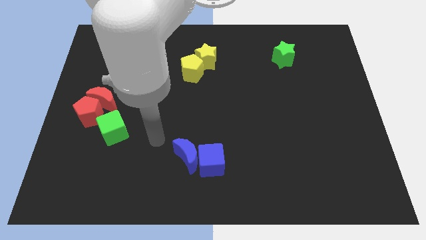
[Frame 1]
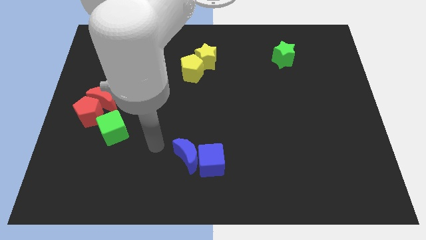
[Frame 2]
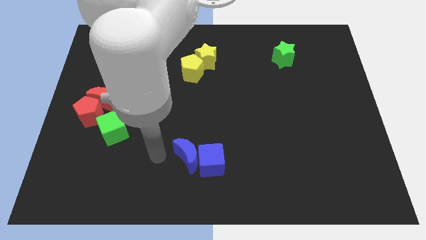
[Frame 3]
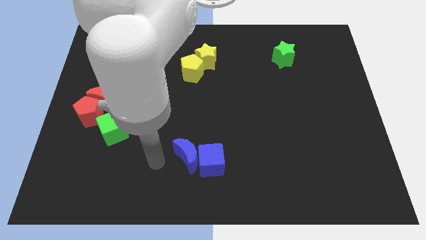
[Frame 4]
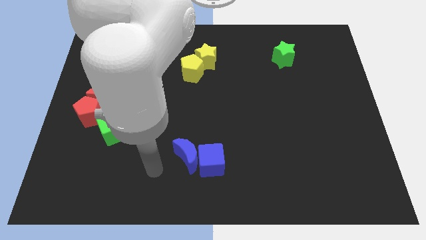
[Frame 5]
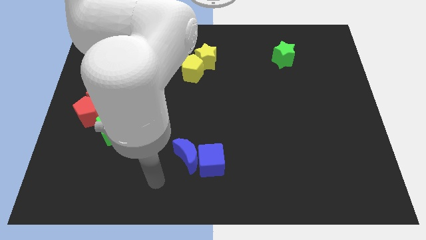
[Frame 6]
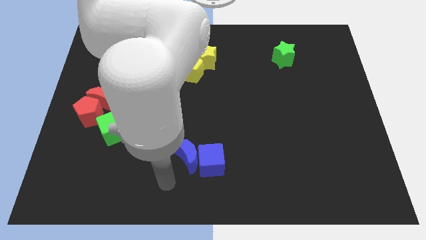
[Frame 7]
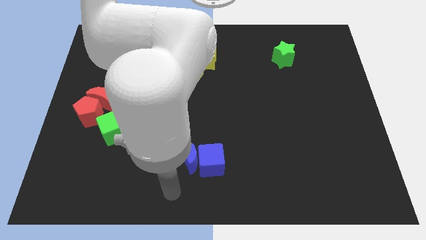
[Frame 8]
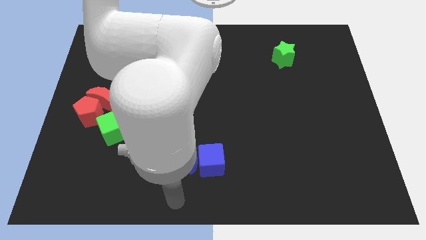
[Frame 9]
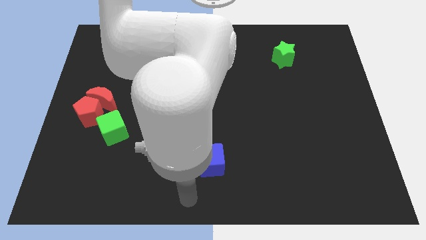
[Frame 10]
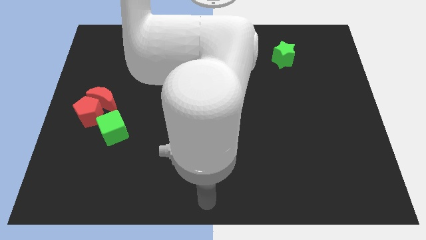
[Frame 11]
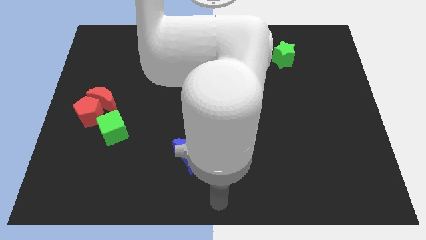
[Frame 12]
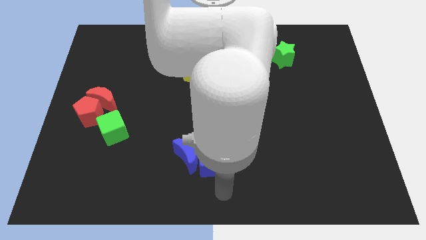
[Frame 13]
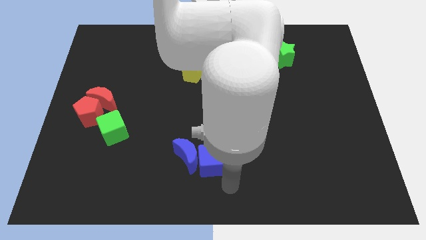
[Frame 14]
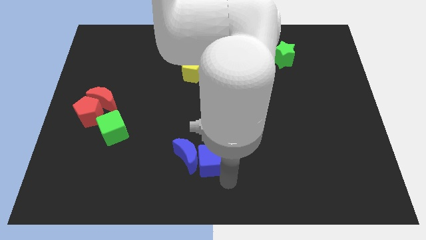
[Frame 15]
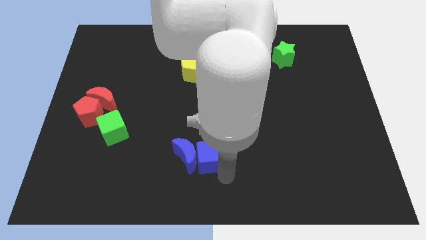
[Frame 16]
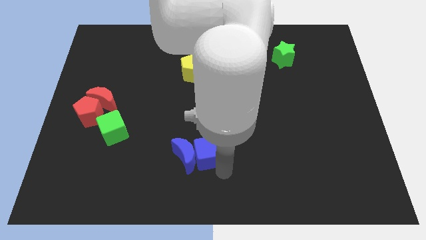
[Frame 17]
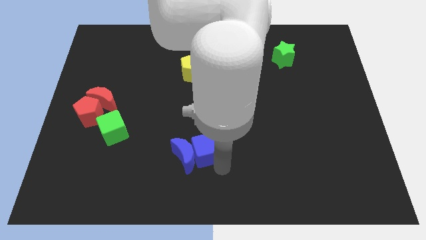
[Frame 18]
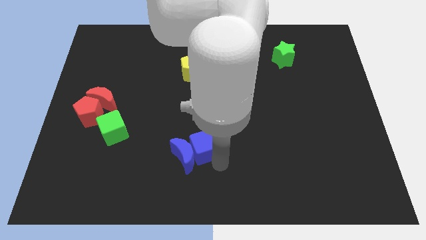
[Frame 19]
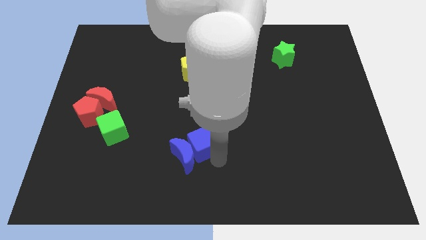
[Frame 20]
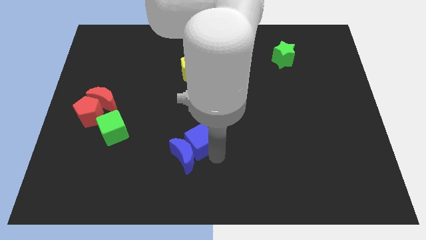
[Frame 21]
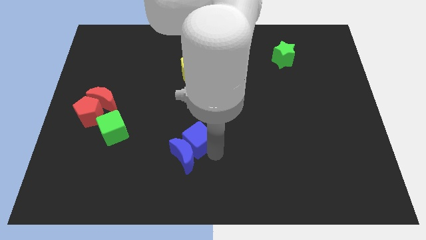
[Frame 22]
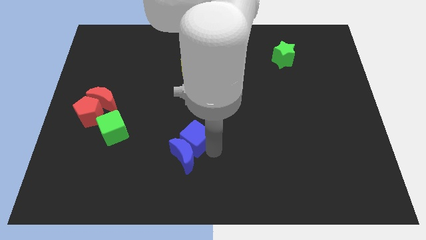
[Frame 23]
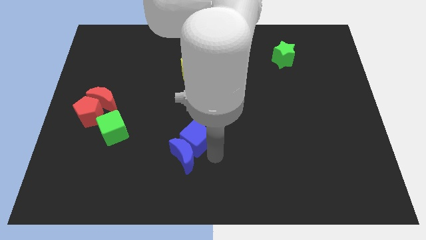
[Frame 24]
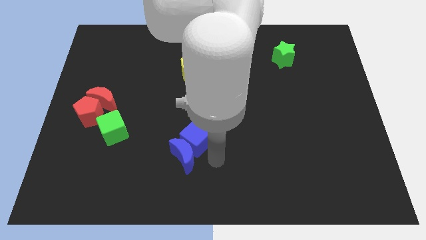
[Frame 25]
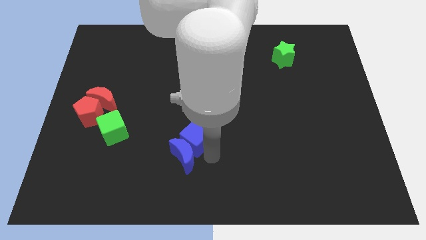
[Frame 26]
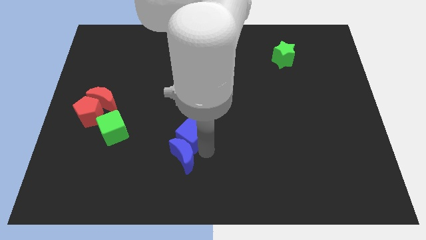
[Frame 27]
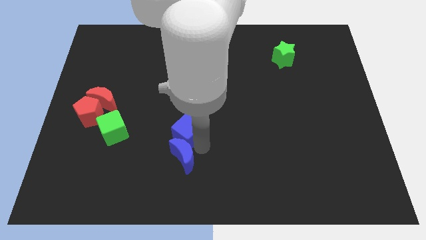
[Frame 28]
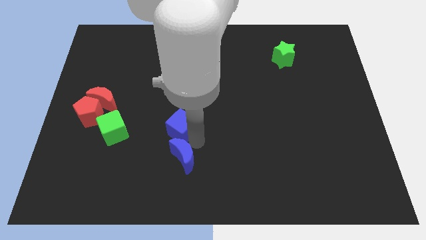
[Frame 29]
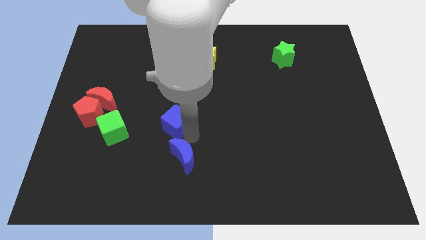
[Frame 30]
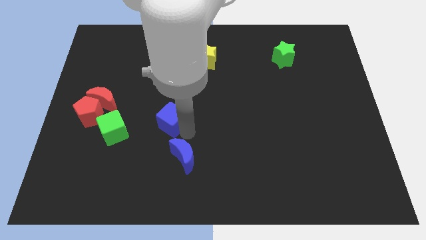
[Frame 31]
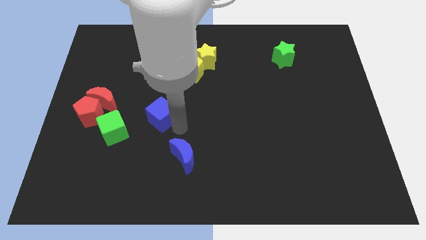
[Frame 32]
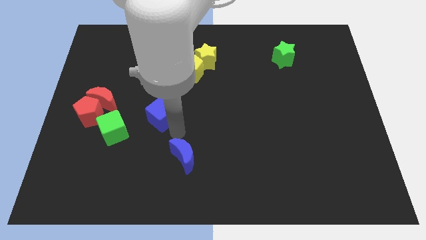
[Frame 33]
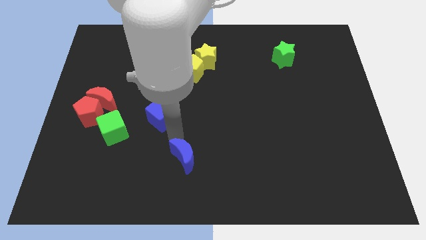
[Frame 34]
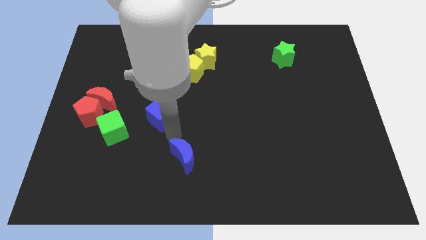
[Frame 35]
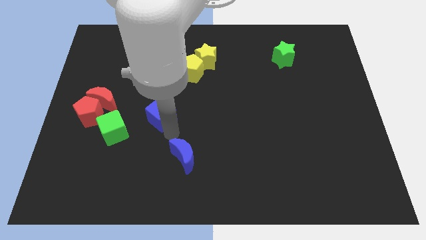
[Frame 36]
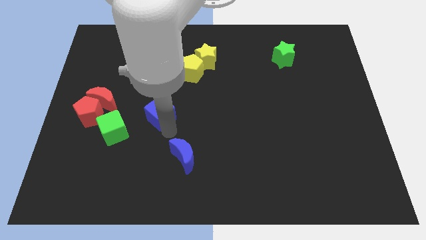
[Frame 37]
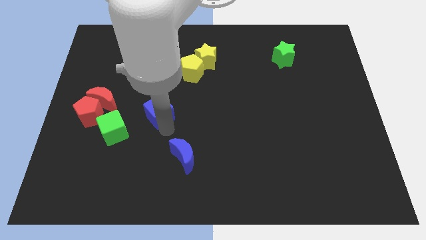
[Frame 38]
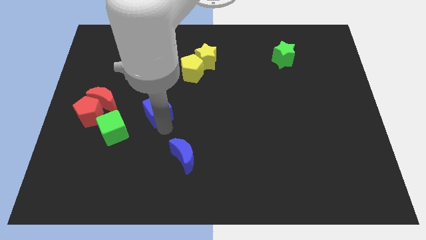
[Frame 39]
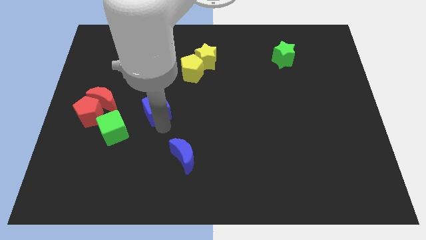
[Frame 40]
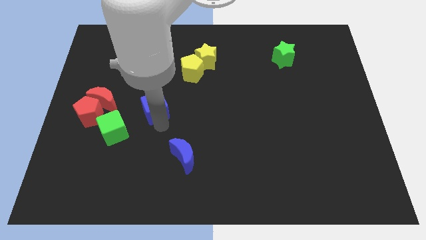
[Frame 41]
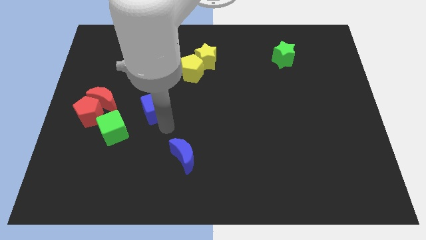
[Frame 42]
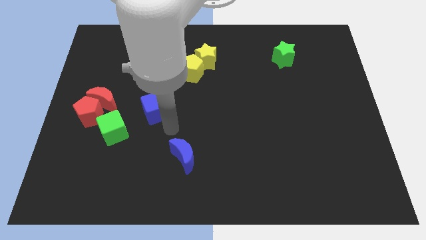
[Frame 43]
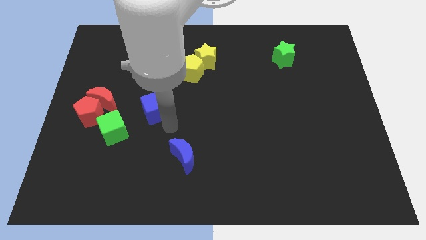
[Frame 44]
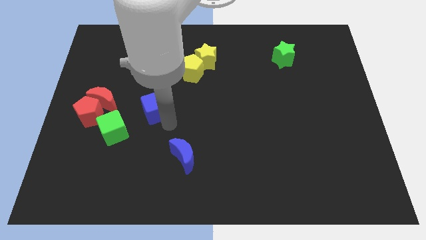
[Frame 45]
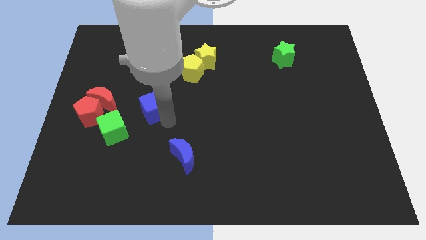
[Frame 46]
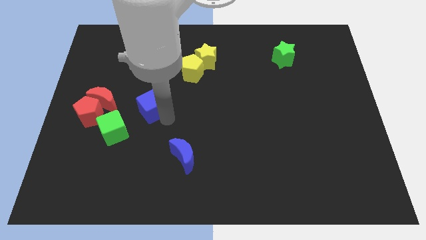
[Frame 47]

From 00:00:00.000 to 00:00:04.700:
push the blue cube up and then left

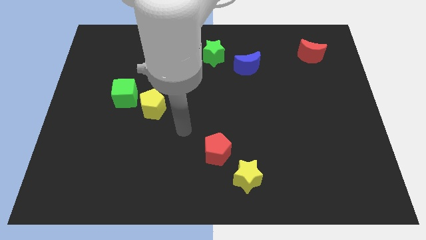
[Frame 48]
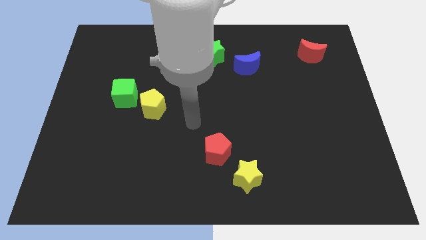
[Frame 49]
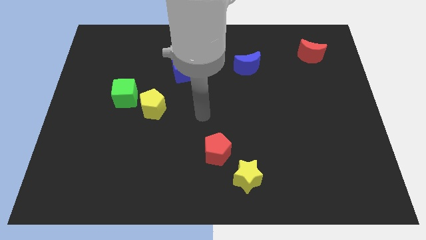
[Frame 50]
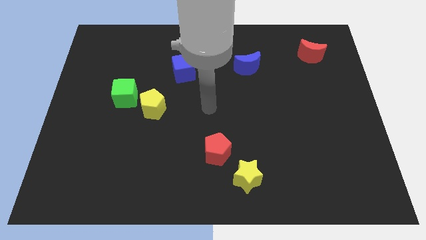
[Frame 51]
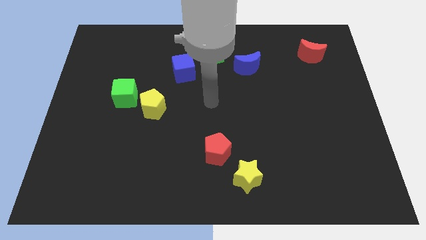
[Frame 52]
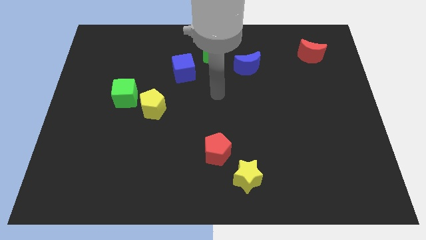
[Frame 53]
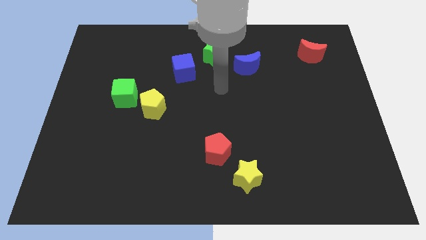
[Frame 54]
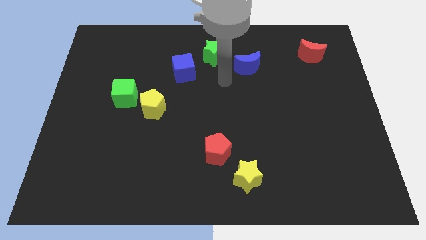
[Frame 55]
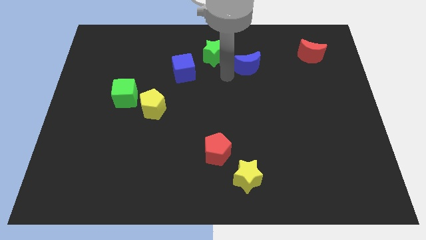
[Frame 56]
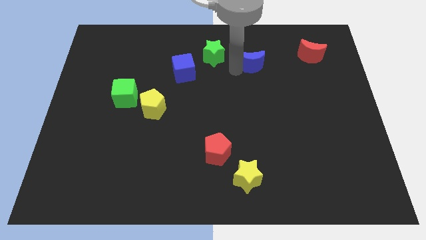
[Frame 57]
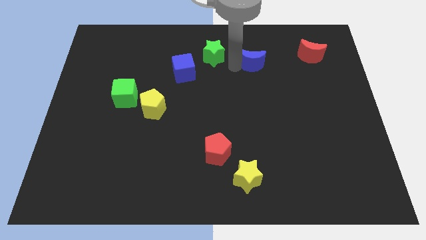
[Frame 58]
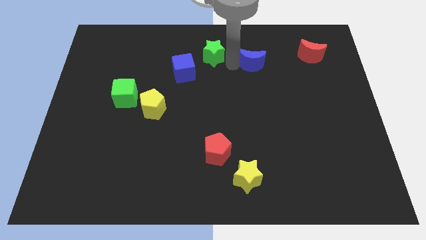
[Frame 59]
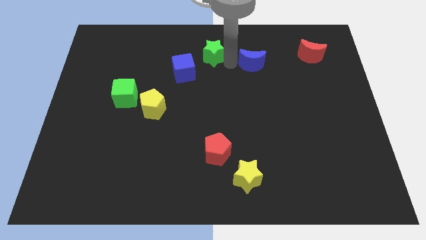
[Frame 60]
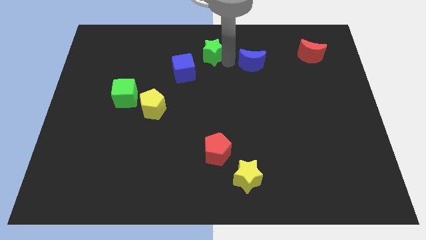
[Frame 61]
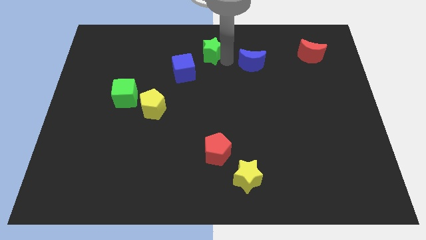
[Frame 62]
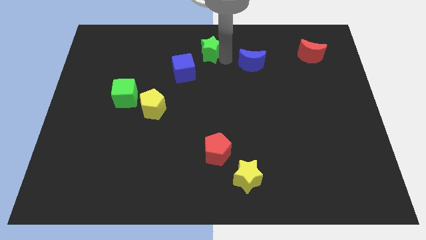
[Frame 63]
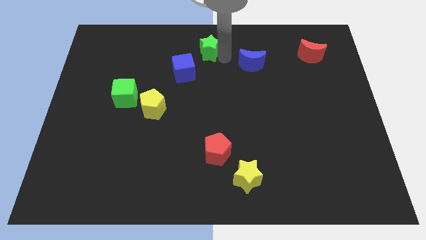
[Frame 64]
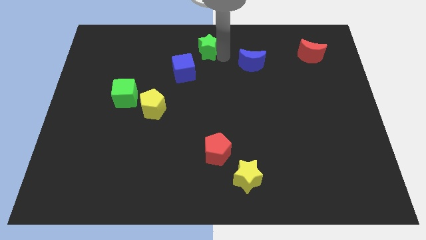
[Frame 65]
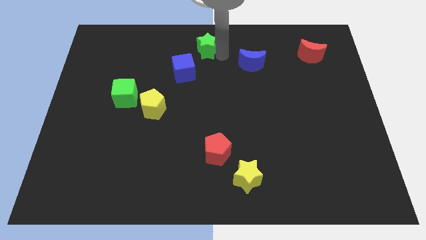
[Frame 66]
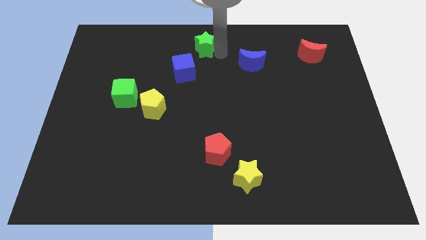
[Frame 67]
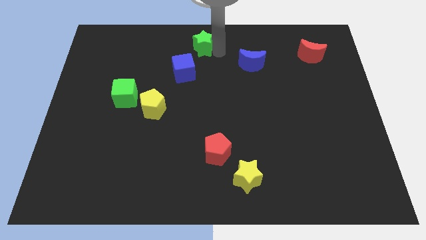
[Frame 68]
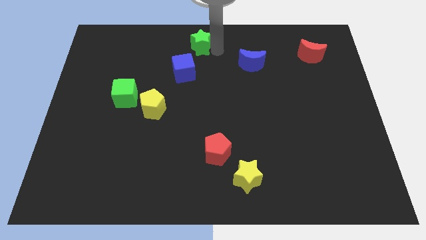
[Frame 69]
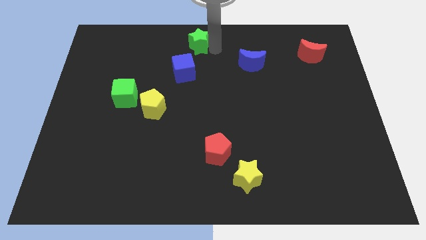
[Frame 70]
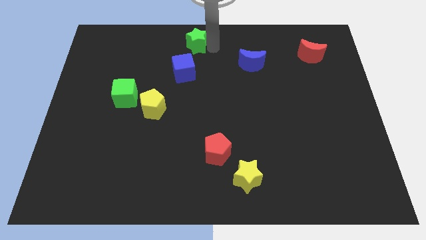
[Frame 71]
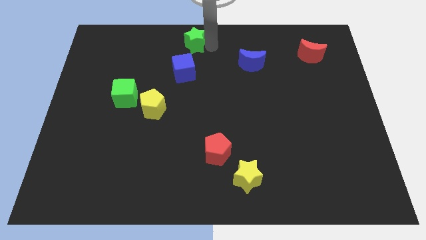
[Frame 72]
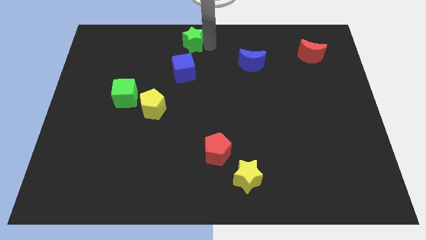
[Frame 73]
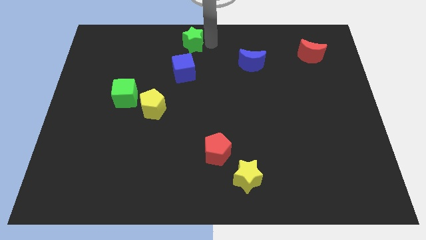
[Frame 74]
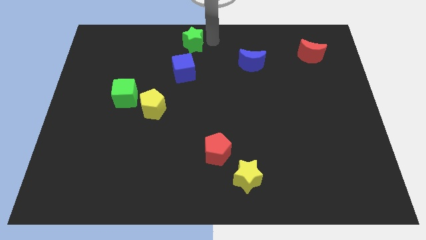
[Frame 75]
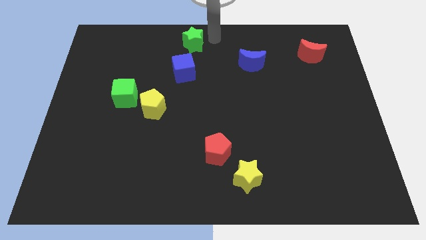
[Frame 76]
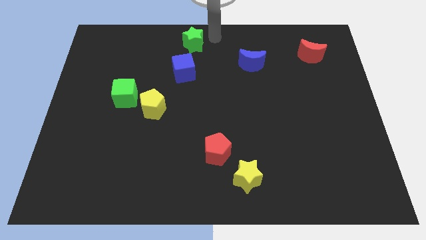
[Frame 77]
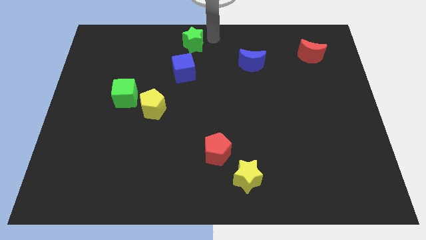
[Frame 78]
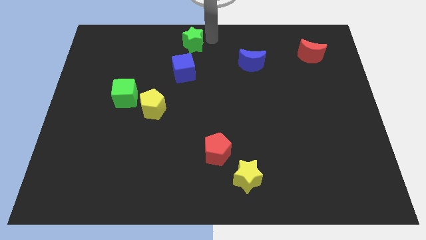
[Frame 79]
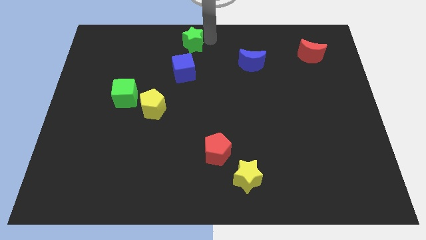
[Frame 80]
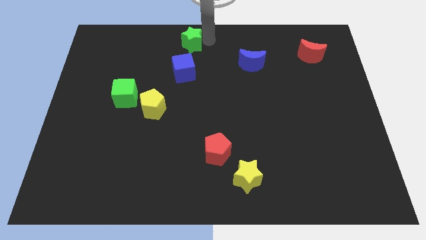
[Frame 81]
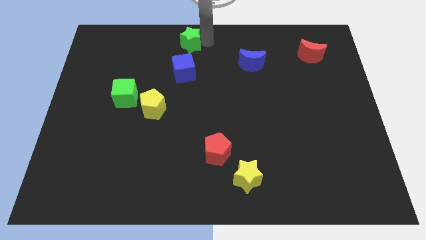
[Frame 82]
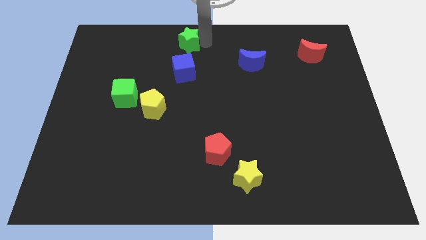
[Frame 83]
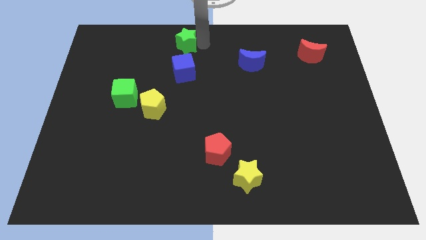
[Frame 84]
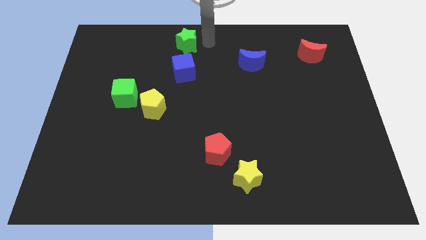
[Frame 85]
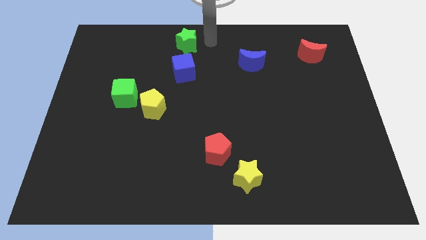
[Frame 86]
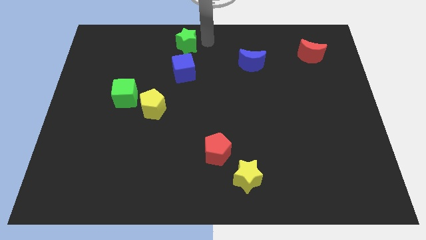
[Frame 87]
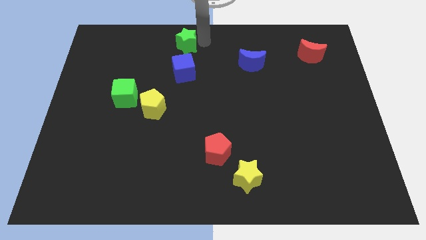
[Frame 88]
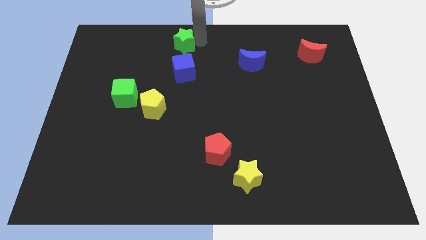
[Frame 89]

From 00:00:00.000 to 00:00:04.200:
slide the green star left somewhat
